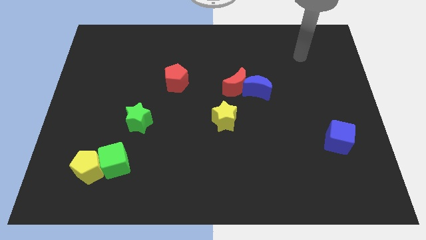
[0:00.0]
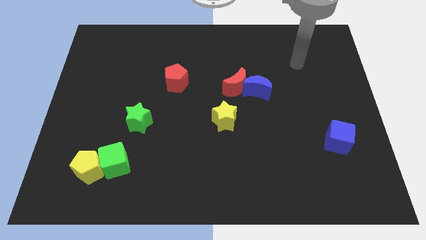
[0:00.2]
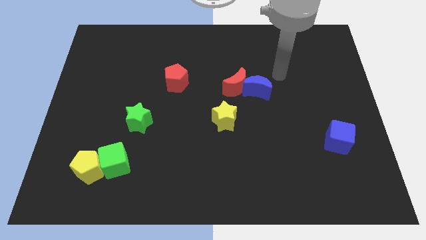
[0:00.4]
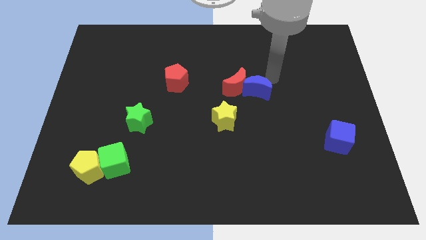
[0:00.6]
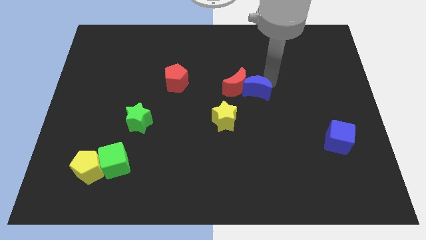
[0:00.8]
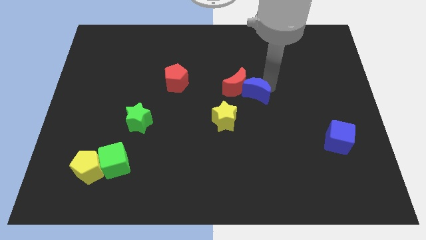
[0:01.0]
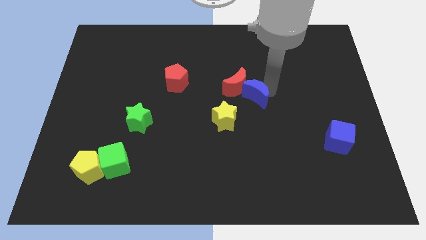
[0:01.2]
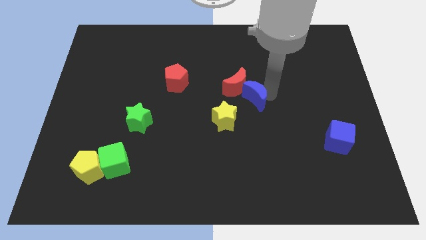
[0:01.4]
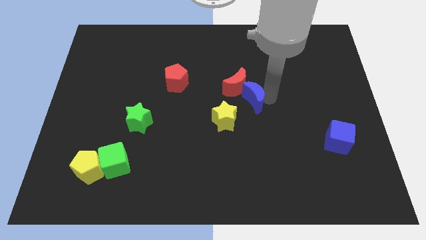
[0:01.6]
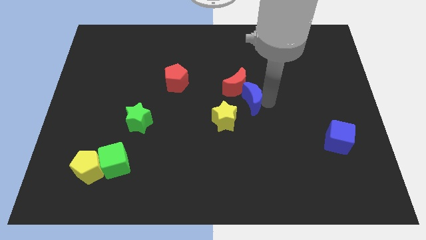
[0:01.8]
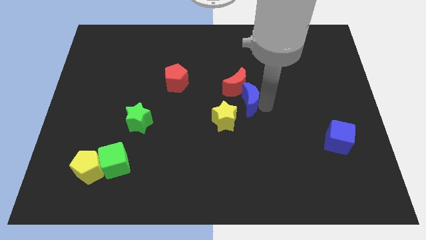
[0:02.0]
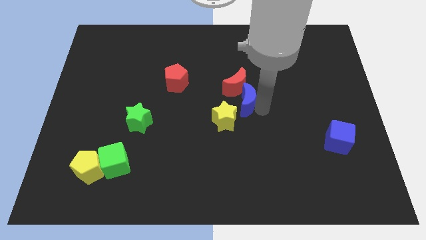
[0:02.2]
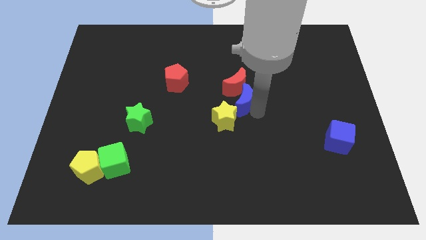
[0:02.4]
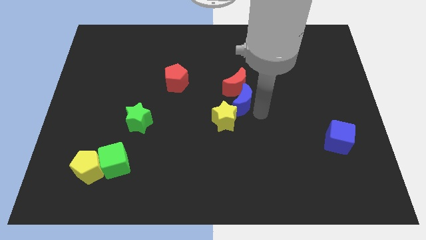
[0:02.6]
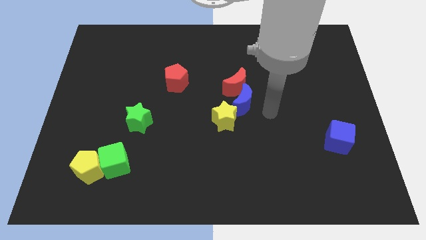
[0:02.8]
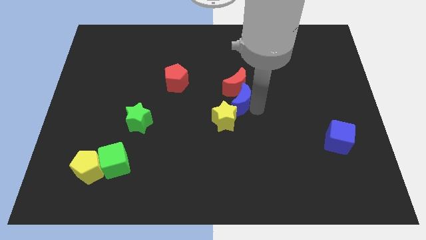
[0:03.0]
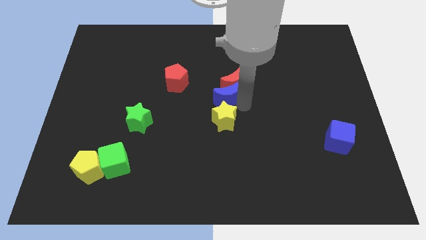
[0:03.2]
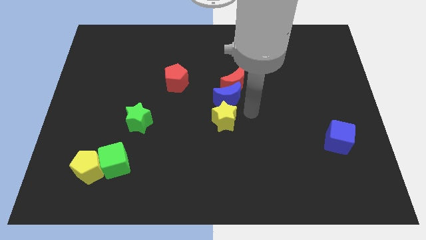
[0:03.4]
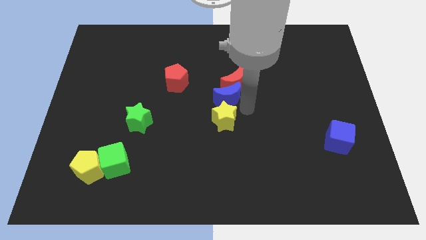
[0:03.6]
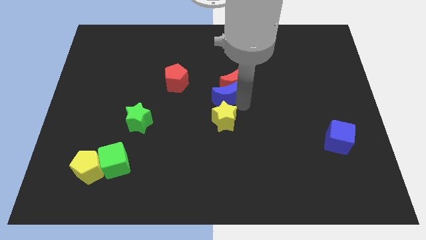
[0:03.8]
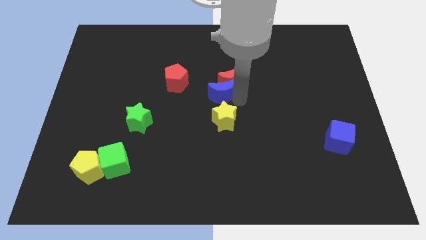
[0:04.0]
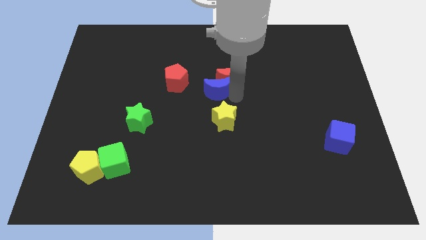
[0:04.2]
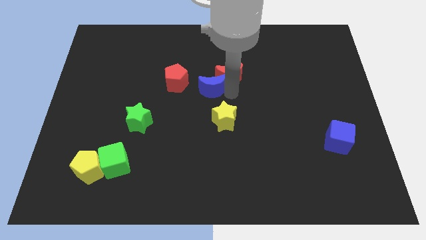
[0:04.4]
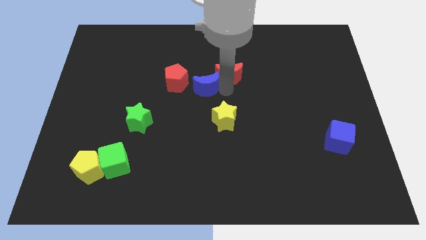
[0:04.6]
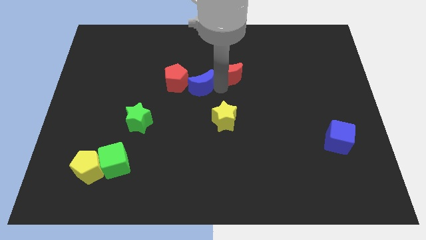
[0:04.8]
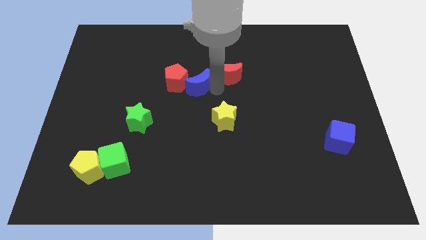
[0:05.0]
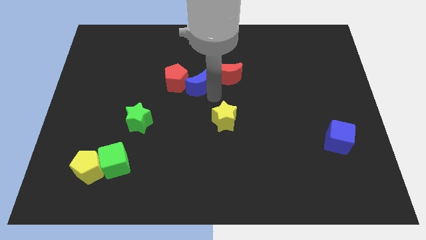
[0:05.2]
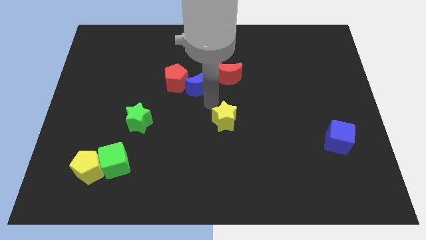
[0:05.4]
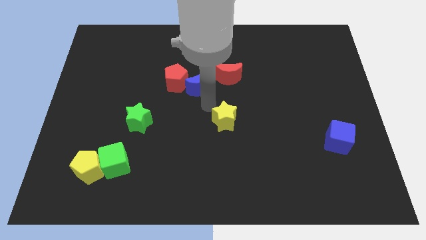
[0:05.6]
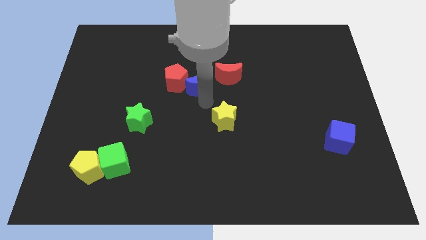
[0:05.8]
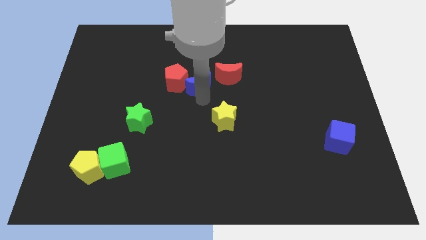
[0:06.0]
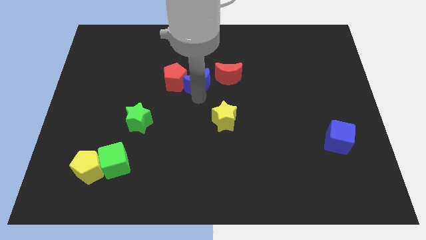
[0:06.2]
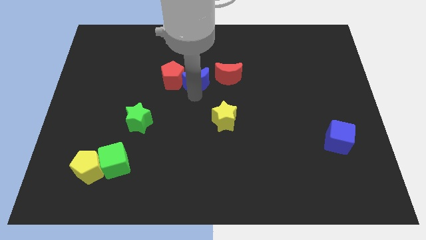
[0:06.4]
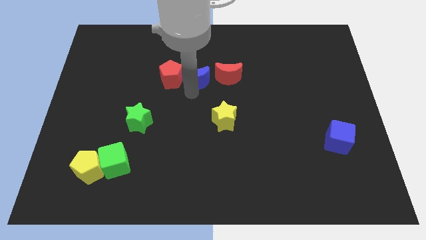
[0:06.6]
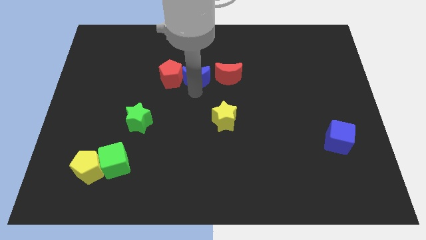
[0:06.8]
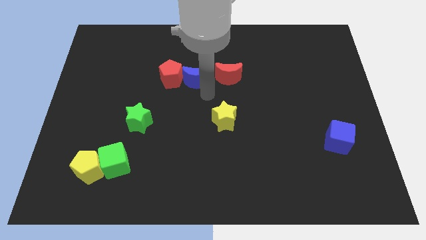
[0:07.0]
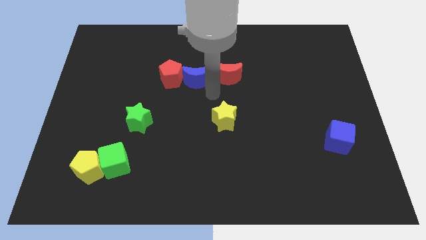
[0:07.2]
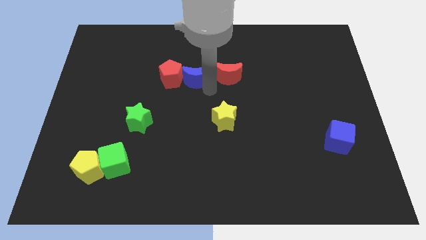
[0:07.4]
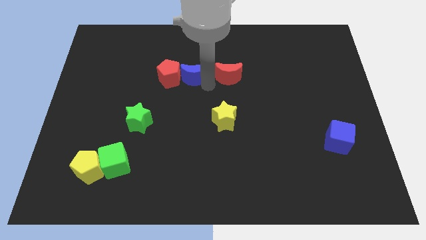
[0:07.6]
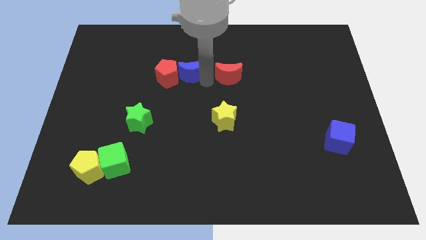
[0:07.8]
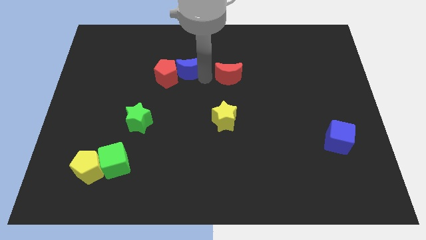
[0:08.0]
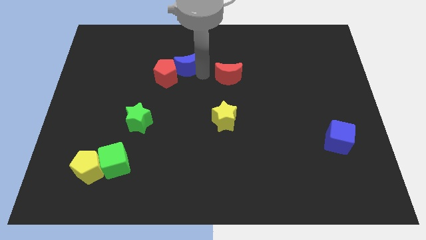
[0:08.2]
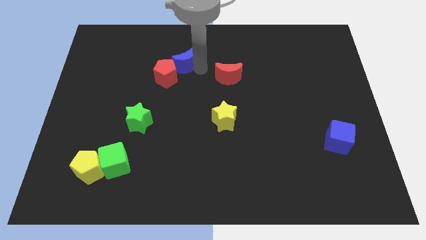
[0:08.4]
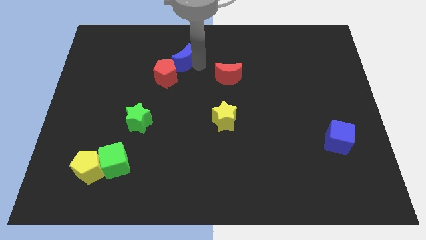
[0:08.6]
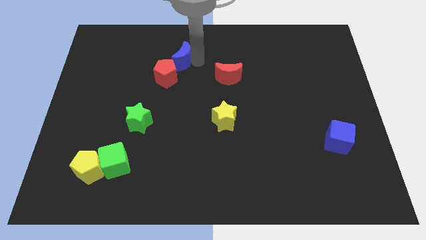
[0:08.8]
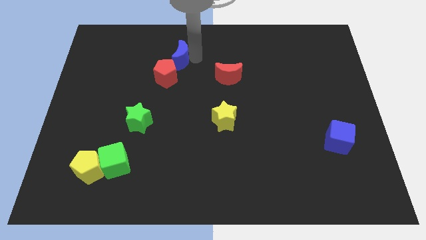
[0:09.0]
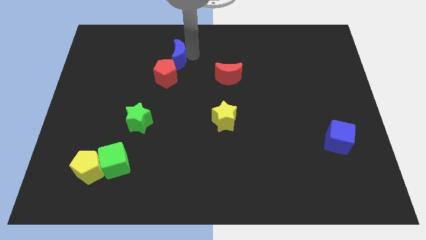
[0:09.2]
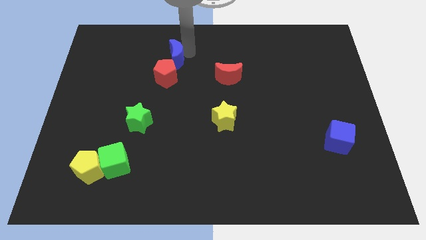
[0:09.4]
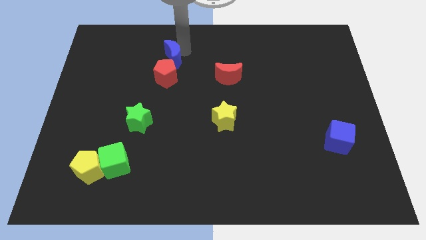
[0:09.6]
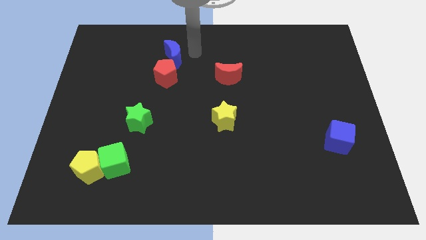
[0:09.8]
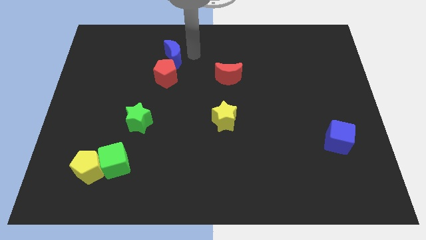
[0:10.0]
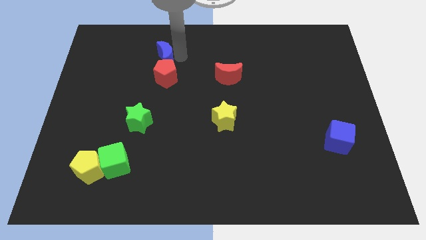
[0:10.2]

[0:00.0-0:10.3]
slide the blue moon to the top left side of the red pentagon

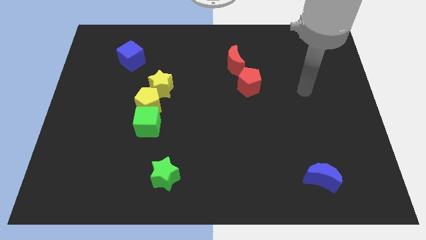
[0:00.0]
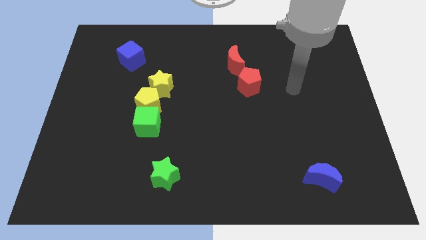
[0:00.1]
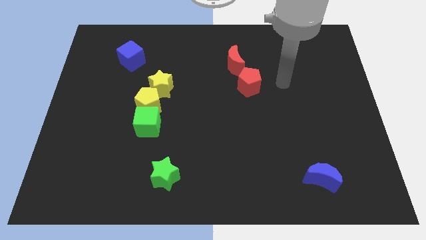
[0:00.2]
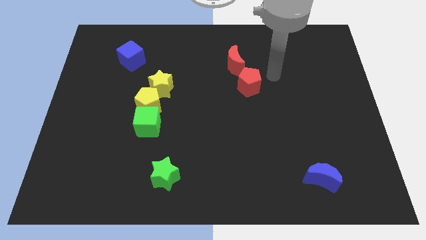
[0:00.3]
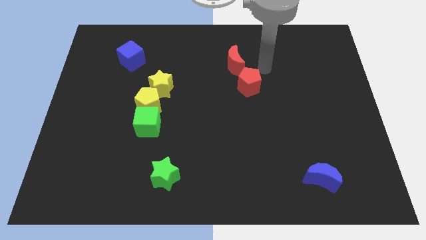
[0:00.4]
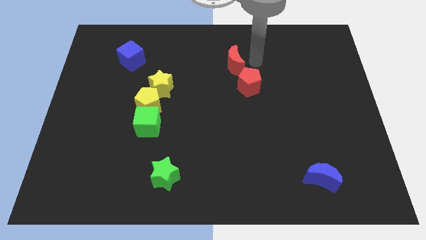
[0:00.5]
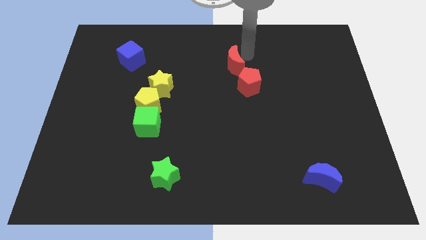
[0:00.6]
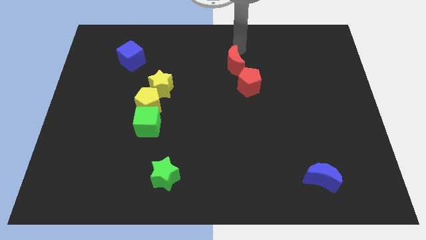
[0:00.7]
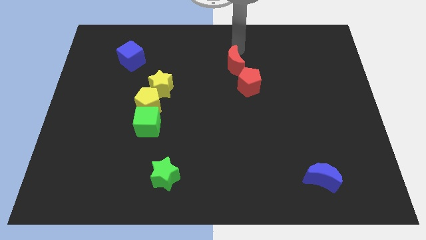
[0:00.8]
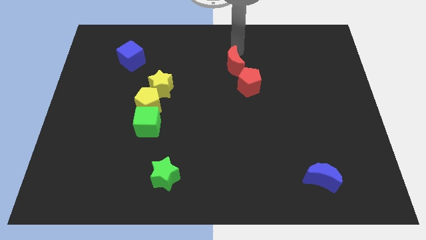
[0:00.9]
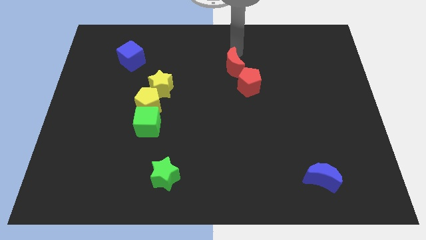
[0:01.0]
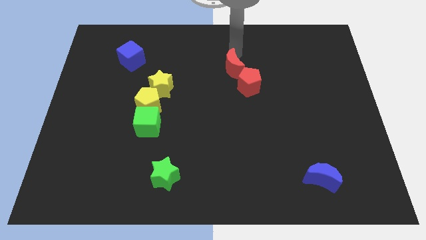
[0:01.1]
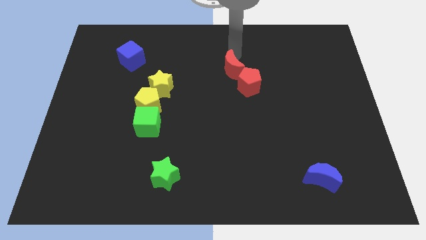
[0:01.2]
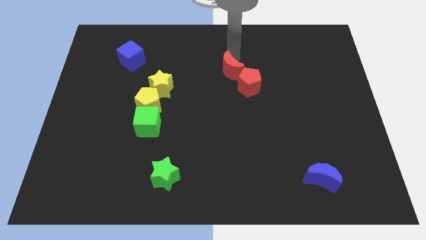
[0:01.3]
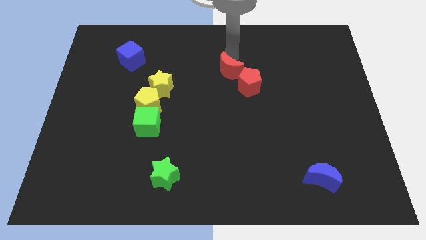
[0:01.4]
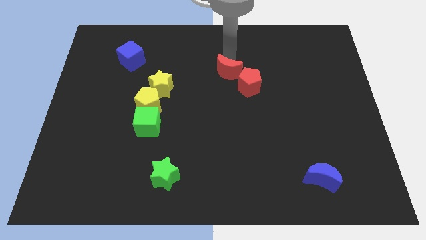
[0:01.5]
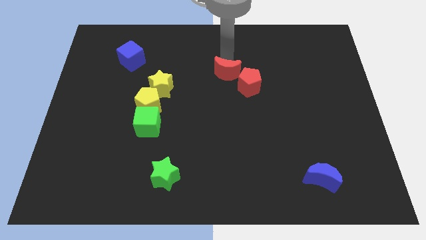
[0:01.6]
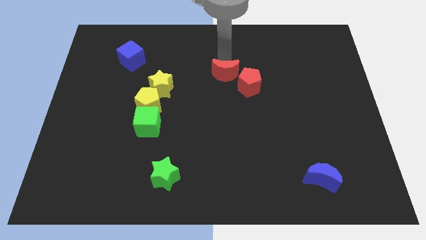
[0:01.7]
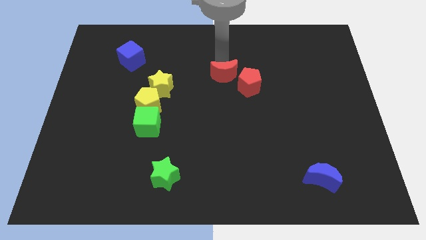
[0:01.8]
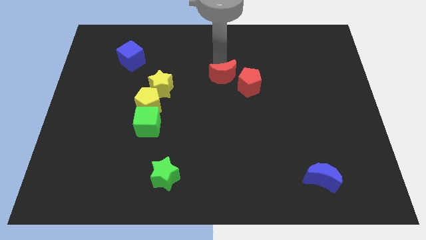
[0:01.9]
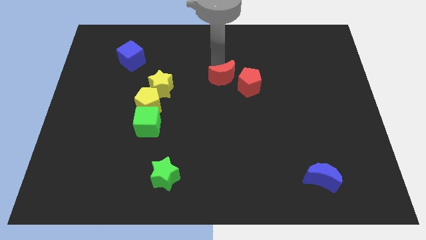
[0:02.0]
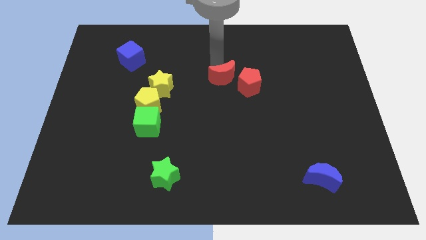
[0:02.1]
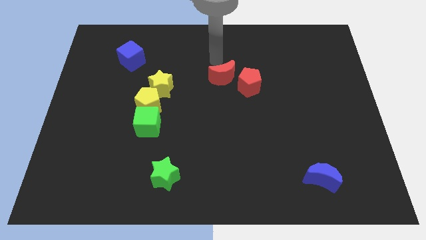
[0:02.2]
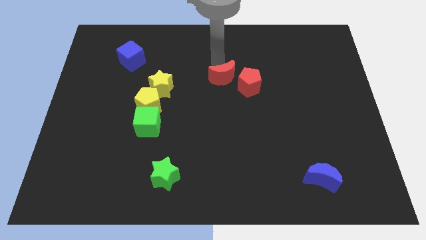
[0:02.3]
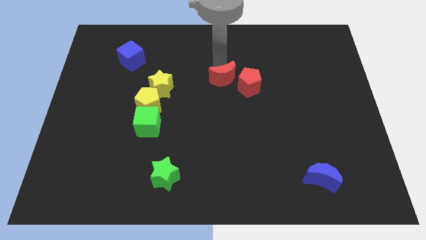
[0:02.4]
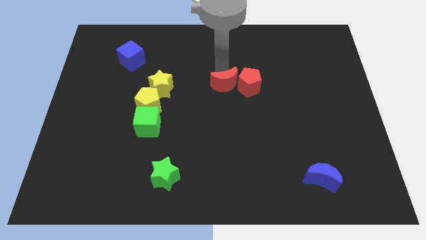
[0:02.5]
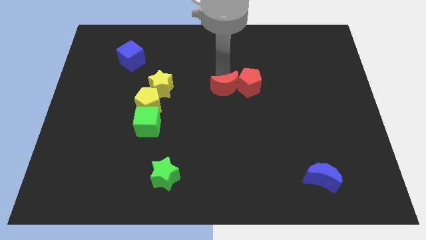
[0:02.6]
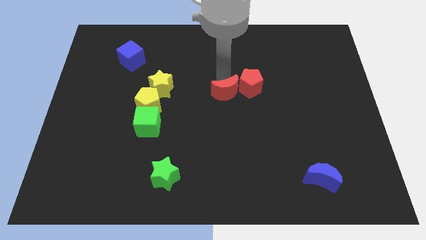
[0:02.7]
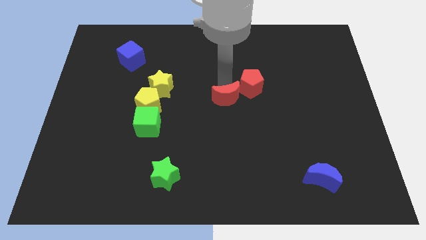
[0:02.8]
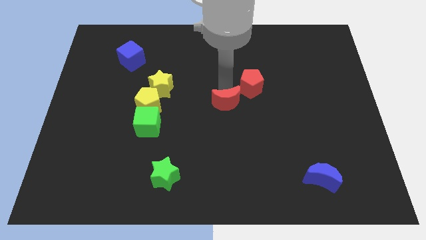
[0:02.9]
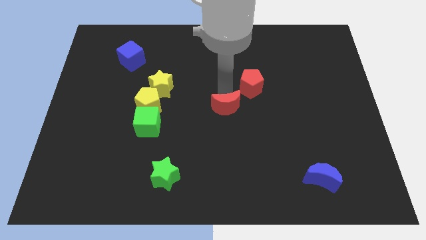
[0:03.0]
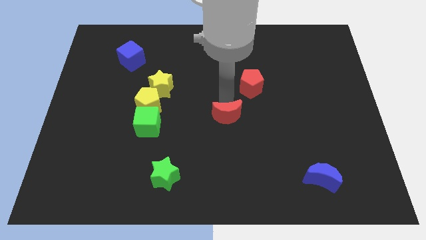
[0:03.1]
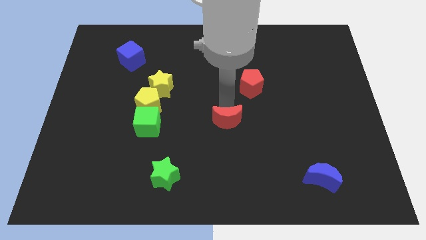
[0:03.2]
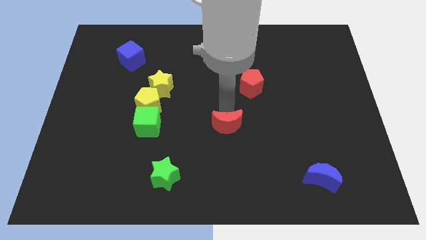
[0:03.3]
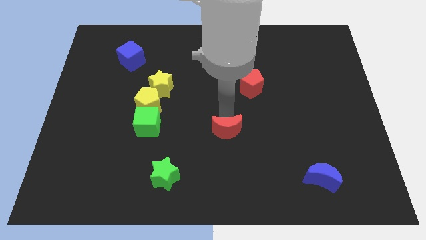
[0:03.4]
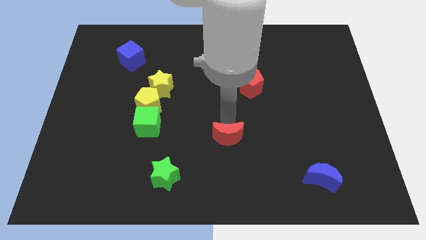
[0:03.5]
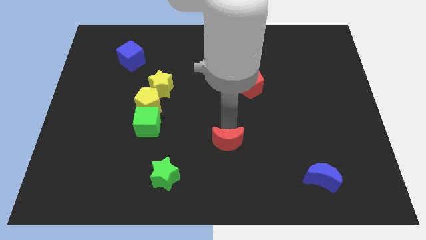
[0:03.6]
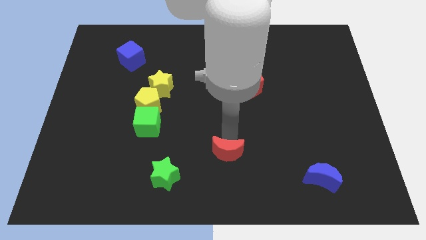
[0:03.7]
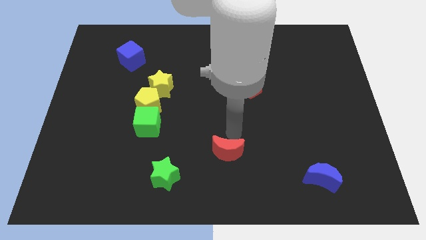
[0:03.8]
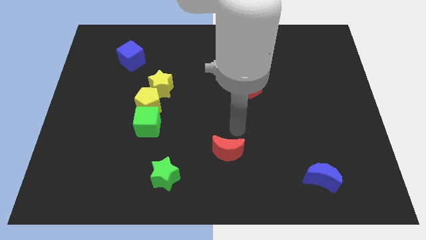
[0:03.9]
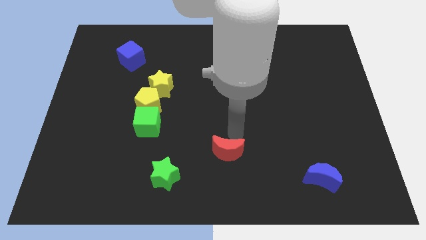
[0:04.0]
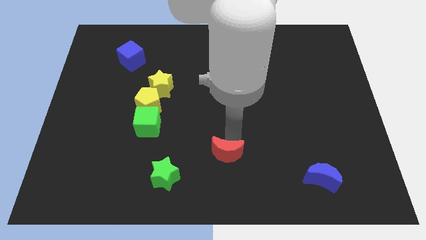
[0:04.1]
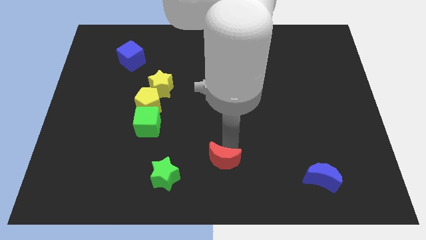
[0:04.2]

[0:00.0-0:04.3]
move the red moon just right of the green star
